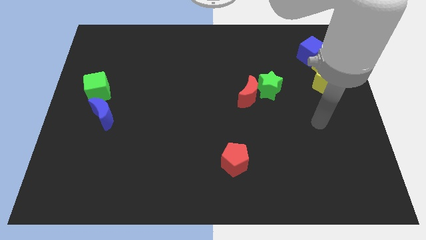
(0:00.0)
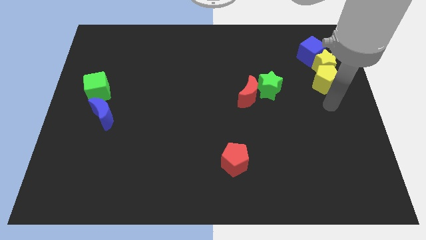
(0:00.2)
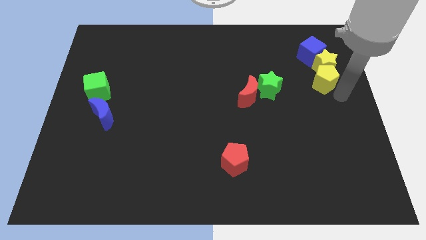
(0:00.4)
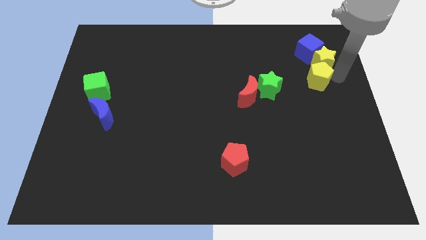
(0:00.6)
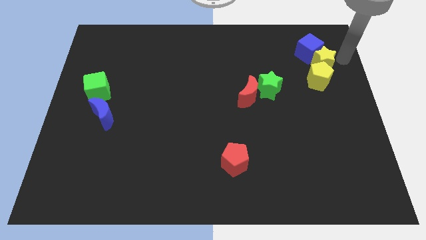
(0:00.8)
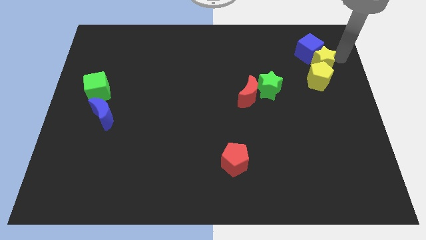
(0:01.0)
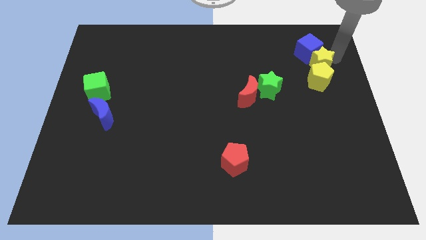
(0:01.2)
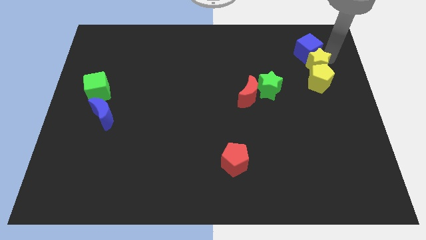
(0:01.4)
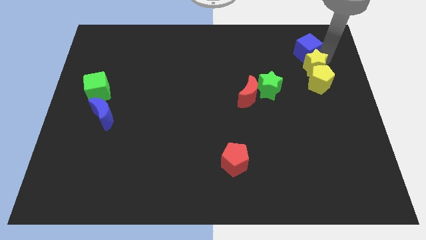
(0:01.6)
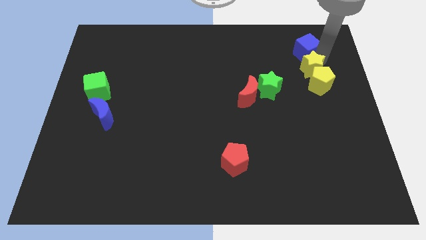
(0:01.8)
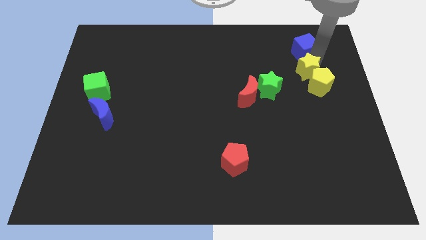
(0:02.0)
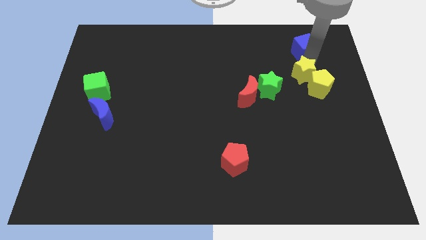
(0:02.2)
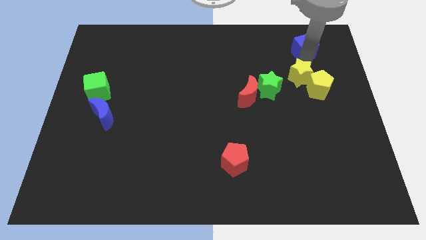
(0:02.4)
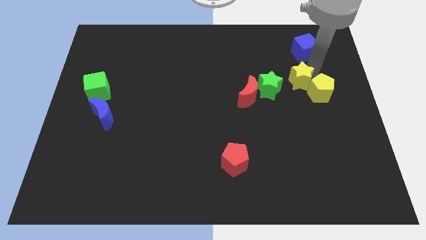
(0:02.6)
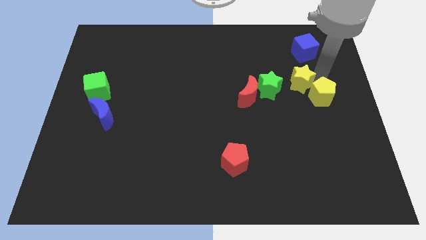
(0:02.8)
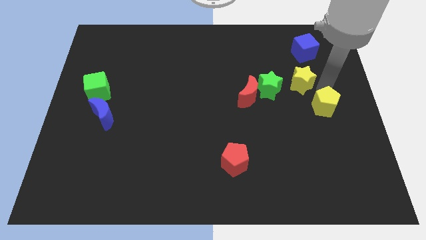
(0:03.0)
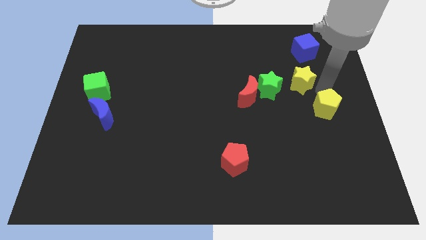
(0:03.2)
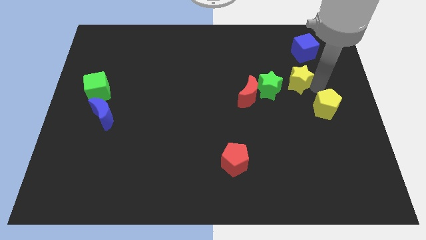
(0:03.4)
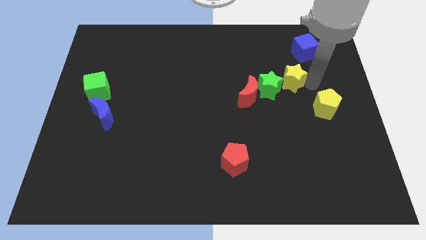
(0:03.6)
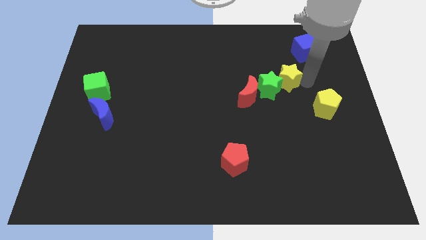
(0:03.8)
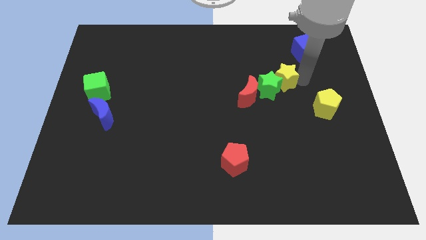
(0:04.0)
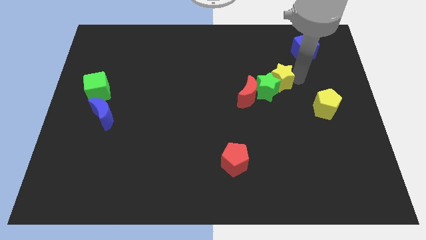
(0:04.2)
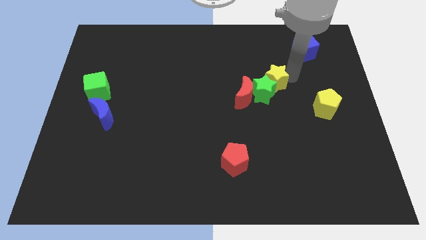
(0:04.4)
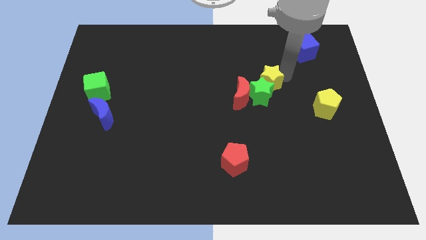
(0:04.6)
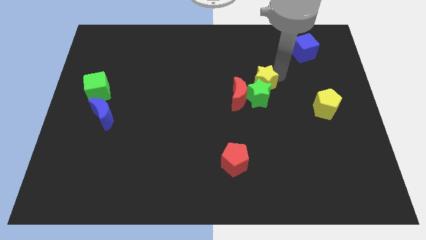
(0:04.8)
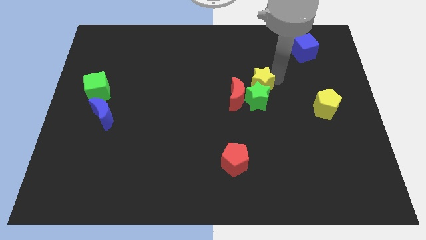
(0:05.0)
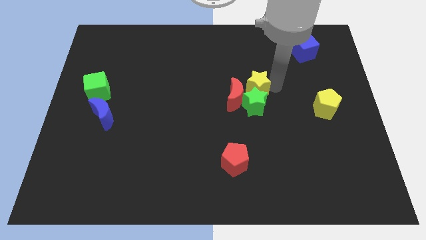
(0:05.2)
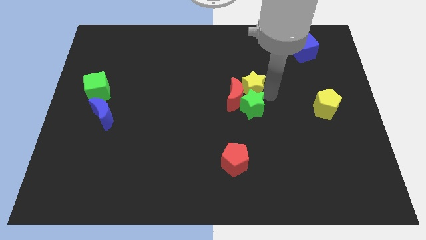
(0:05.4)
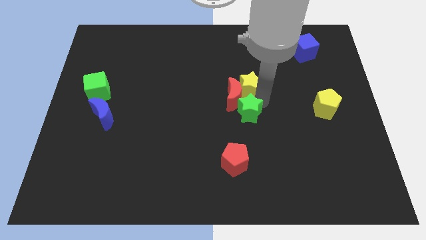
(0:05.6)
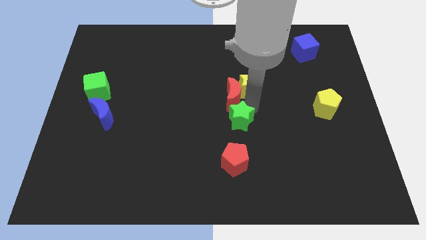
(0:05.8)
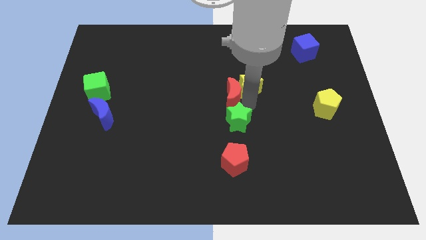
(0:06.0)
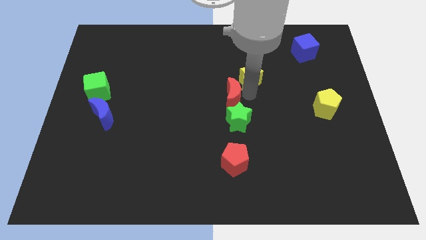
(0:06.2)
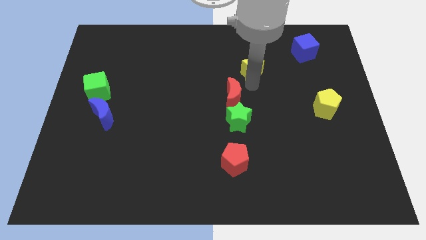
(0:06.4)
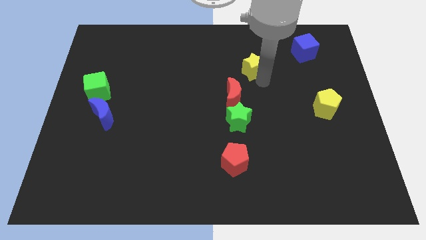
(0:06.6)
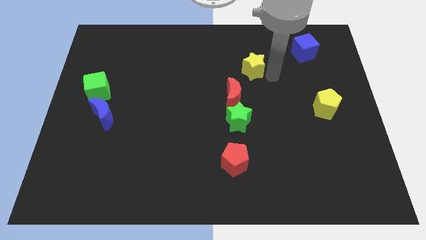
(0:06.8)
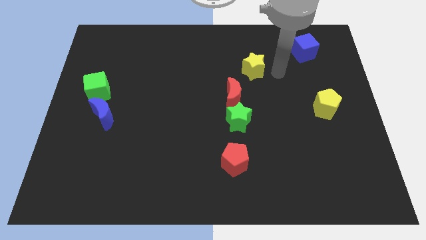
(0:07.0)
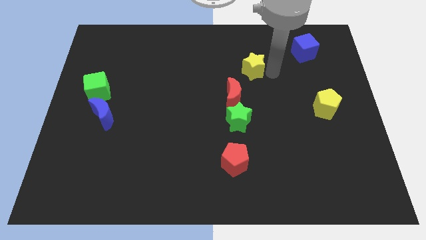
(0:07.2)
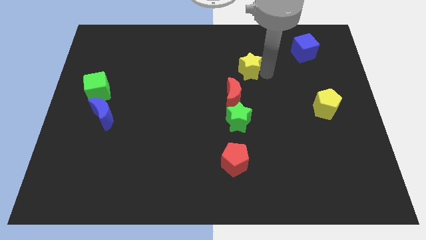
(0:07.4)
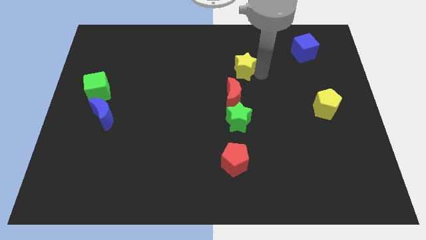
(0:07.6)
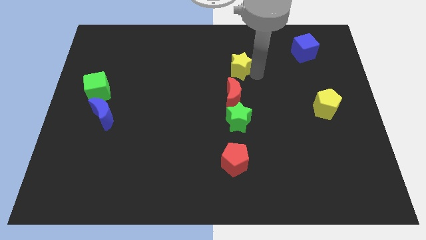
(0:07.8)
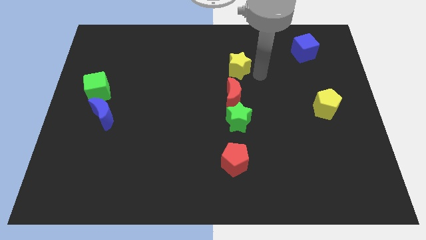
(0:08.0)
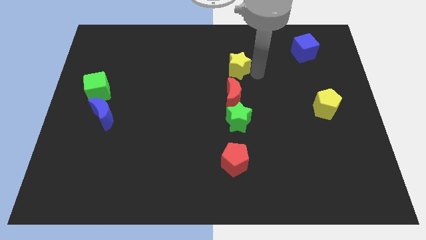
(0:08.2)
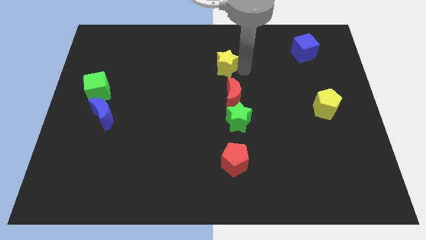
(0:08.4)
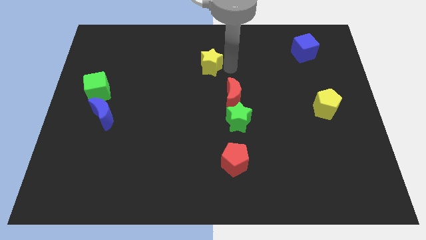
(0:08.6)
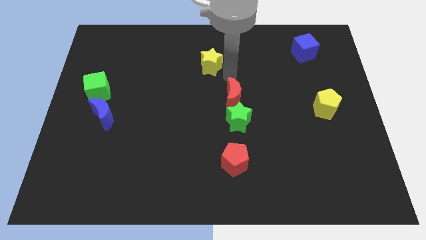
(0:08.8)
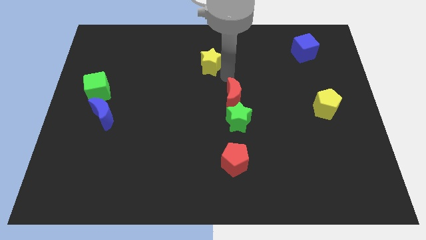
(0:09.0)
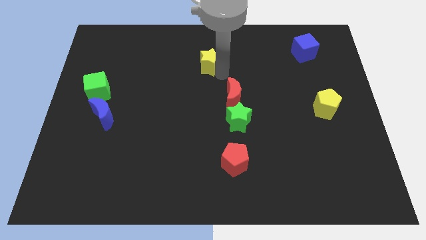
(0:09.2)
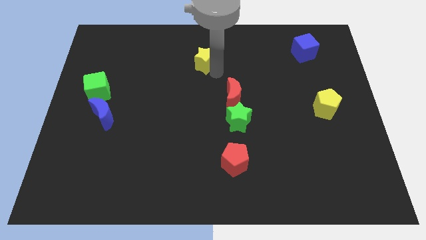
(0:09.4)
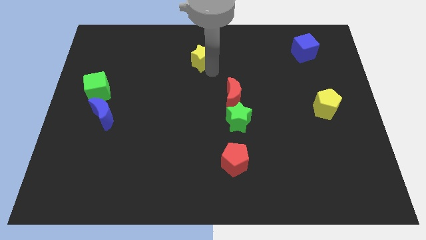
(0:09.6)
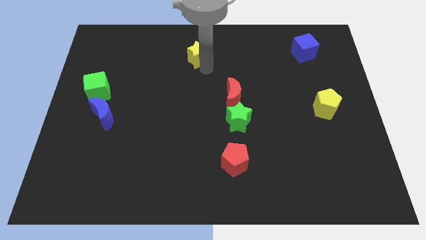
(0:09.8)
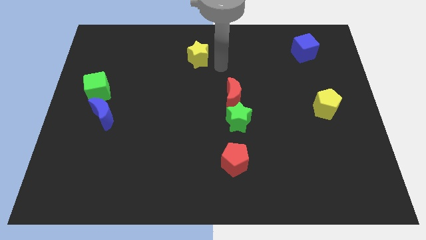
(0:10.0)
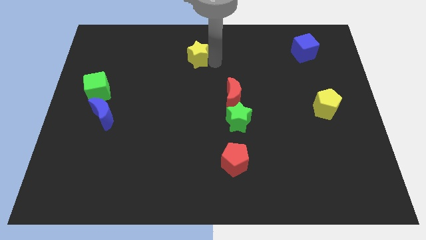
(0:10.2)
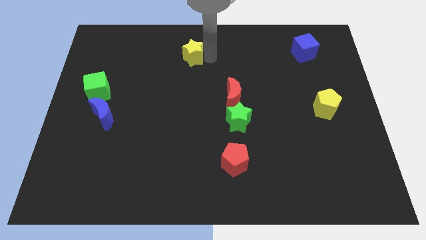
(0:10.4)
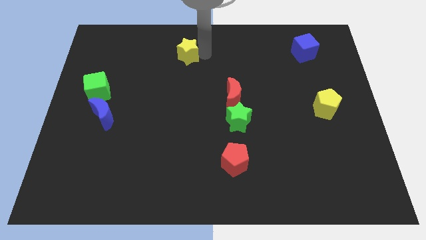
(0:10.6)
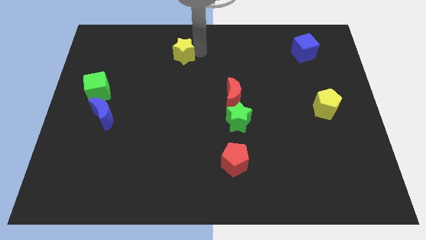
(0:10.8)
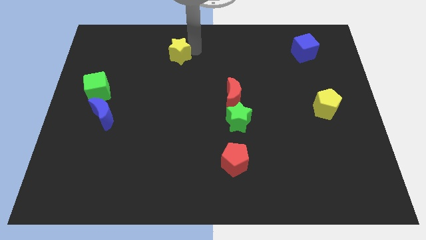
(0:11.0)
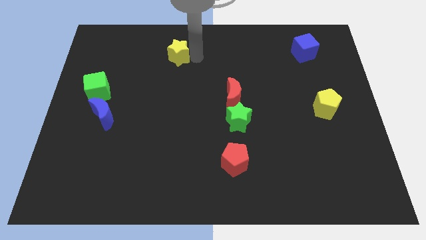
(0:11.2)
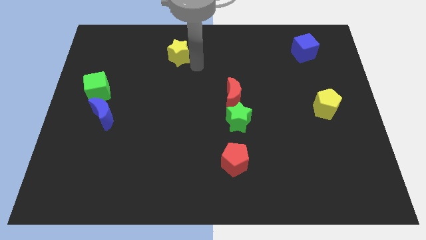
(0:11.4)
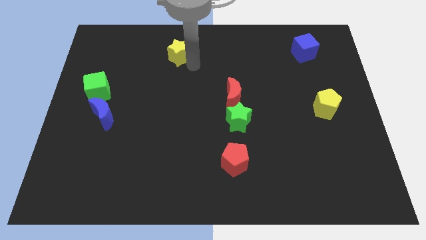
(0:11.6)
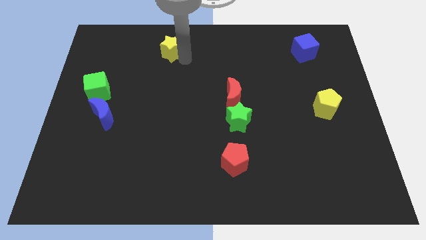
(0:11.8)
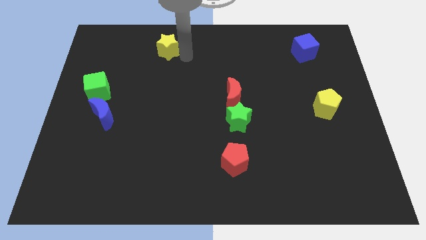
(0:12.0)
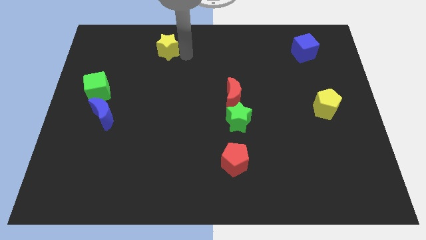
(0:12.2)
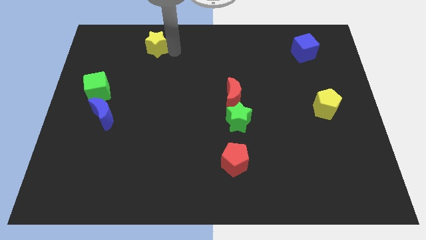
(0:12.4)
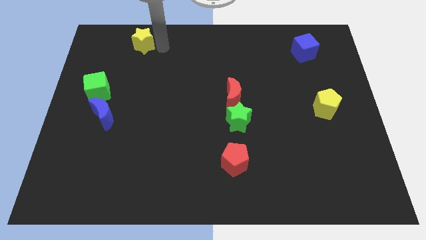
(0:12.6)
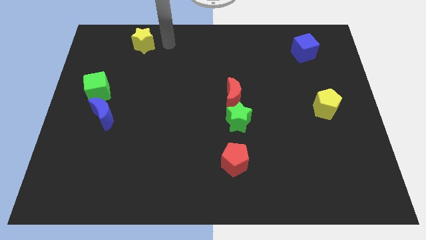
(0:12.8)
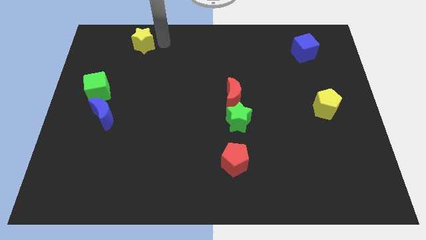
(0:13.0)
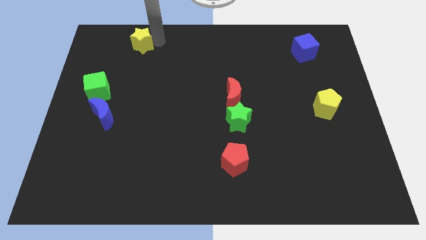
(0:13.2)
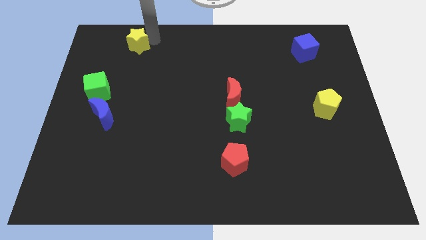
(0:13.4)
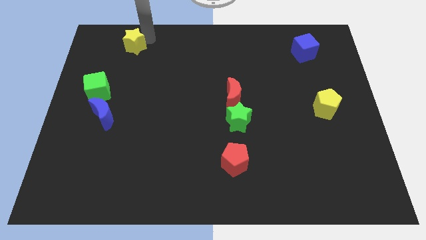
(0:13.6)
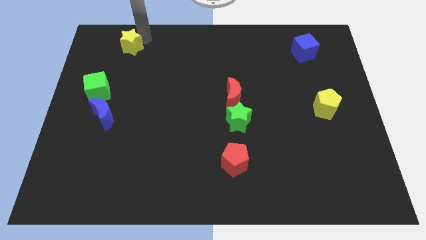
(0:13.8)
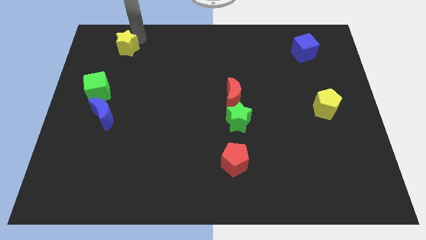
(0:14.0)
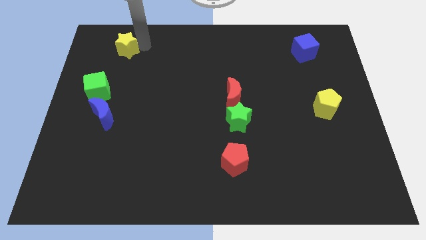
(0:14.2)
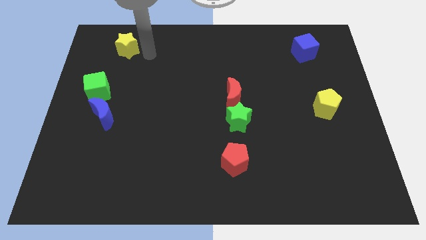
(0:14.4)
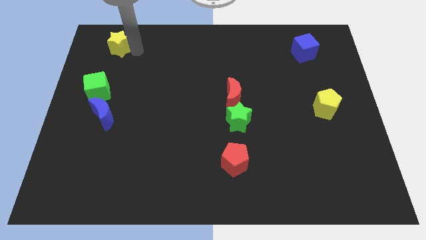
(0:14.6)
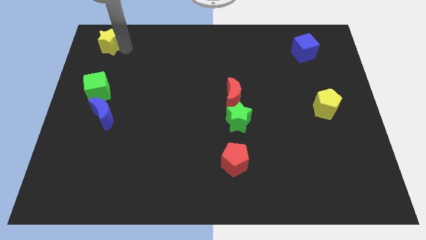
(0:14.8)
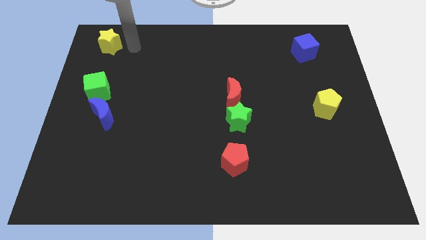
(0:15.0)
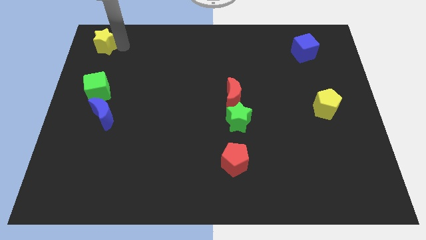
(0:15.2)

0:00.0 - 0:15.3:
slide the yellow star to the top left of the board
